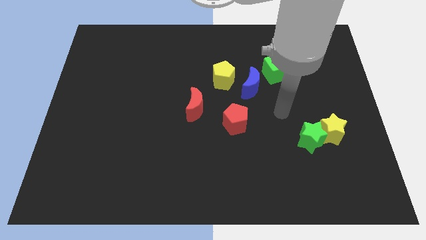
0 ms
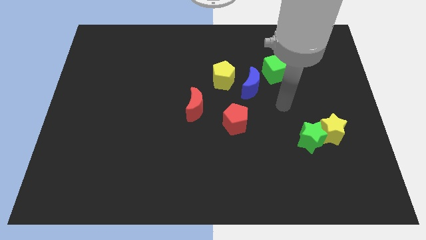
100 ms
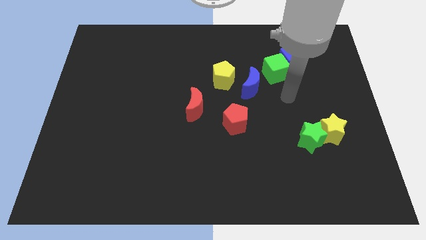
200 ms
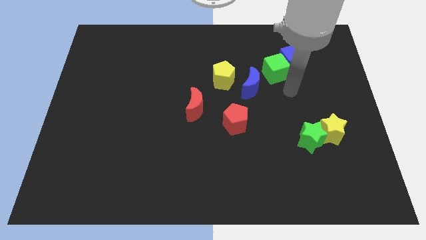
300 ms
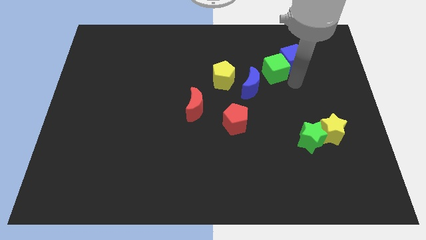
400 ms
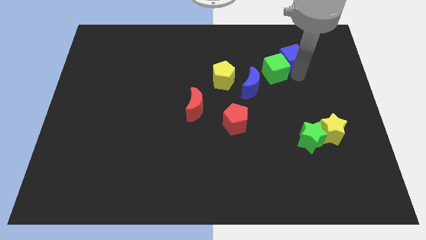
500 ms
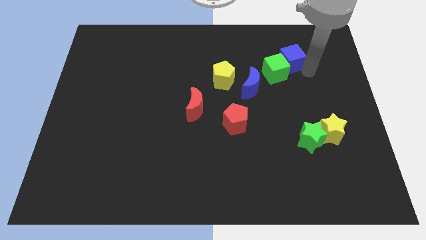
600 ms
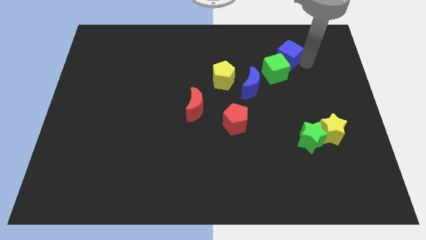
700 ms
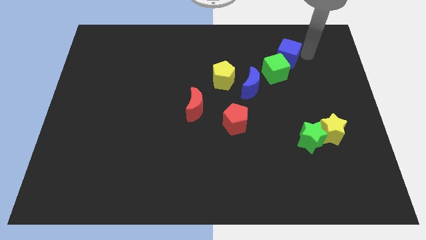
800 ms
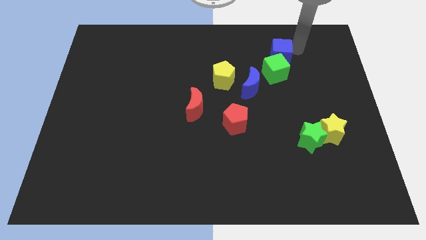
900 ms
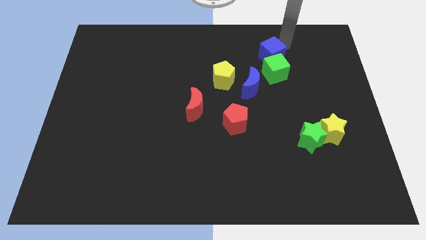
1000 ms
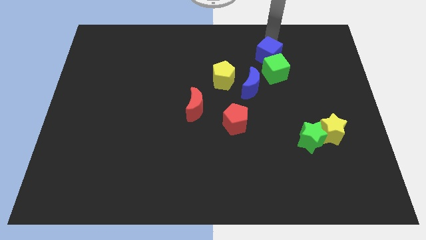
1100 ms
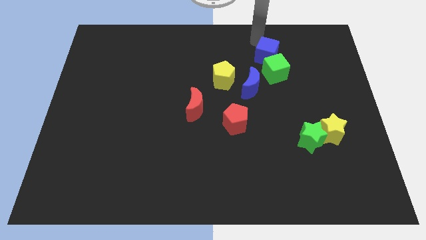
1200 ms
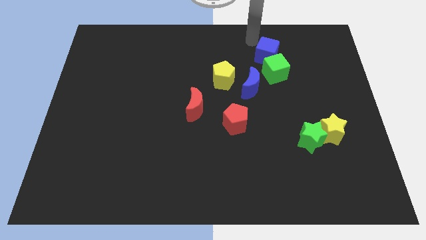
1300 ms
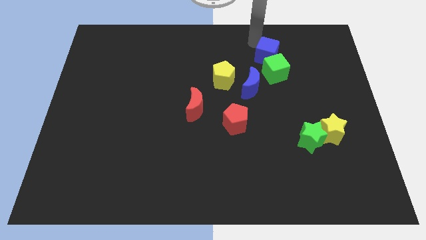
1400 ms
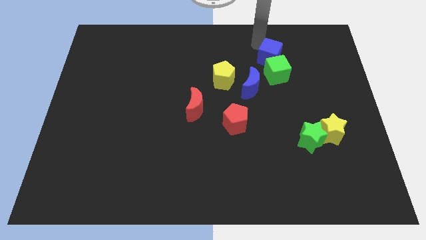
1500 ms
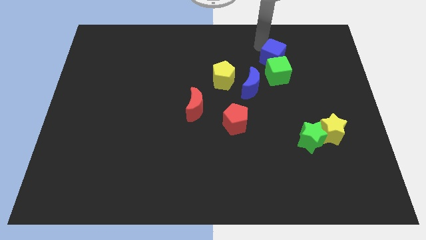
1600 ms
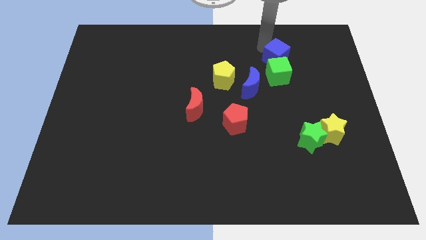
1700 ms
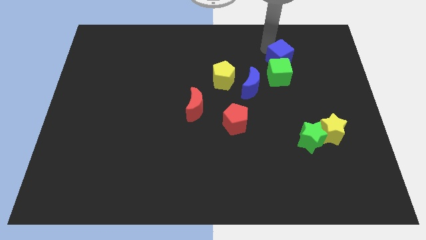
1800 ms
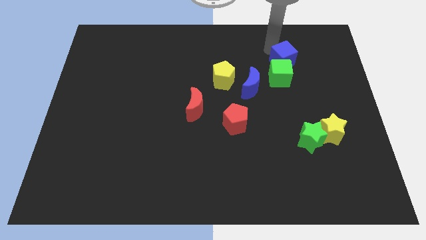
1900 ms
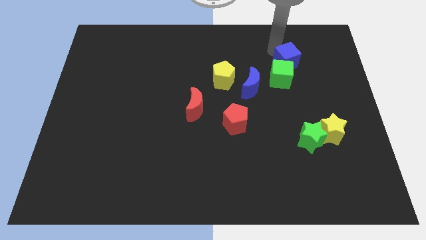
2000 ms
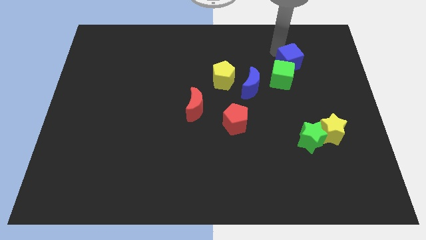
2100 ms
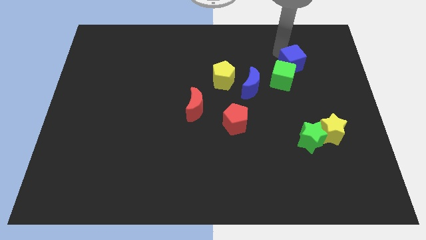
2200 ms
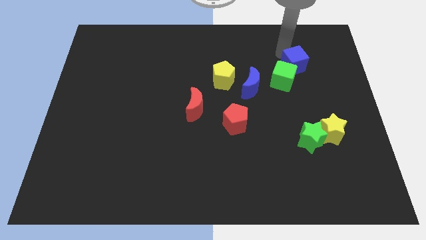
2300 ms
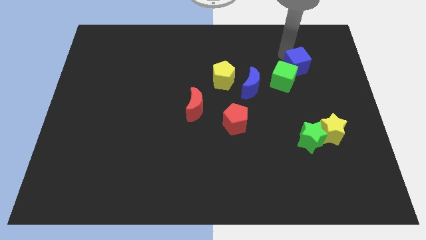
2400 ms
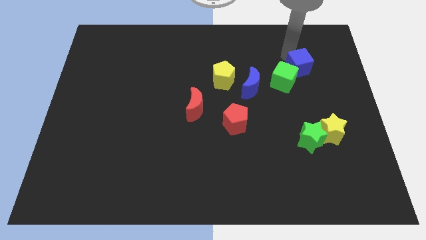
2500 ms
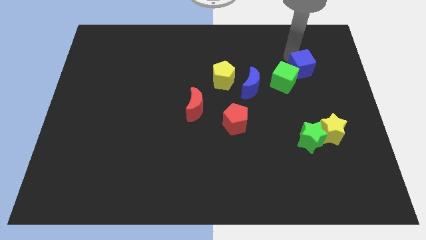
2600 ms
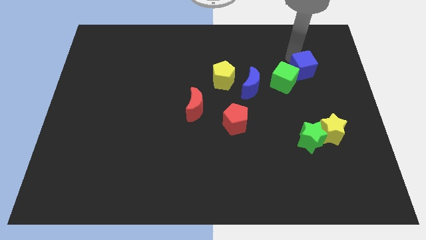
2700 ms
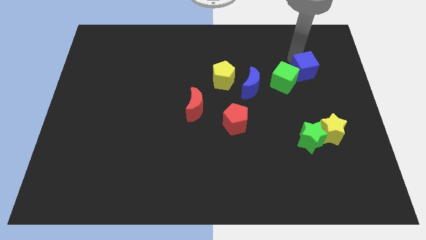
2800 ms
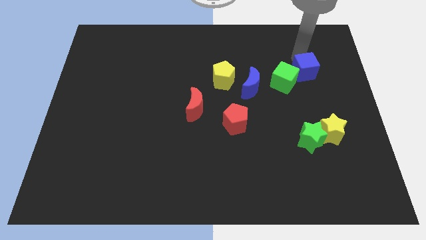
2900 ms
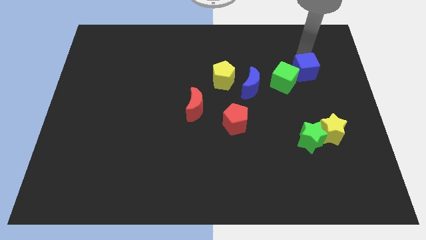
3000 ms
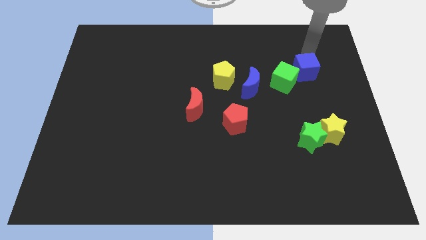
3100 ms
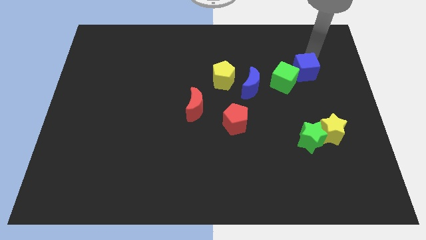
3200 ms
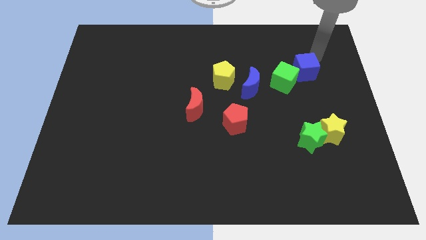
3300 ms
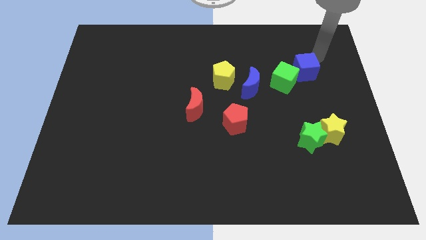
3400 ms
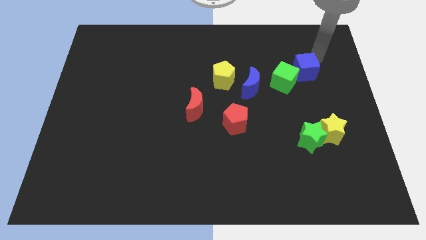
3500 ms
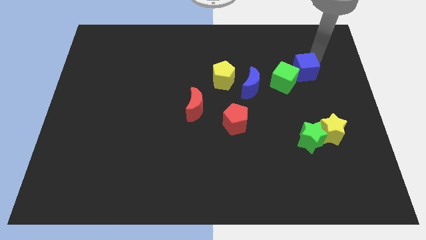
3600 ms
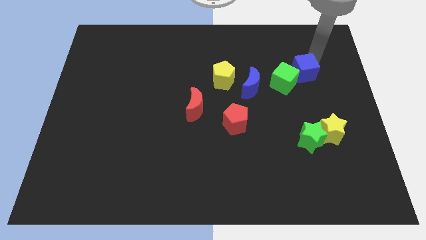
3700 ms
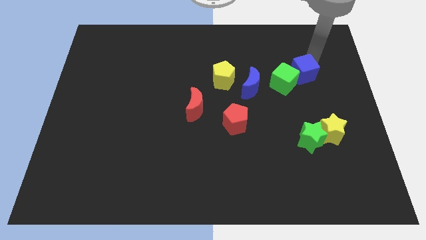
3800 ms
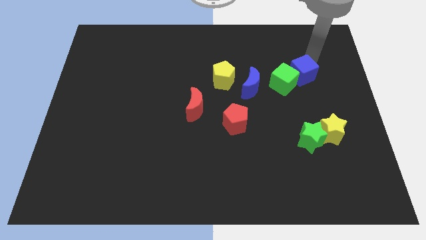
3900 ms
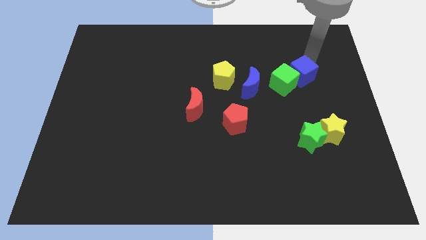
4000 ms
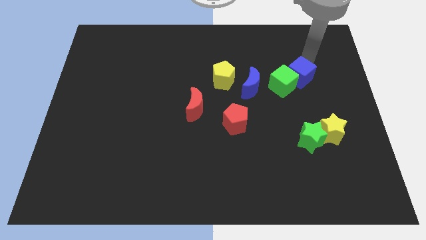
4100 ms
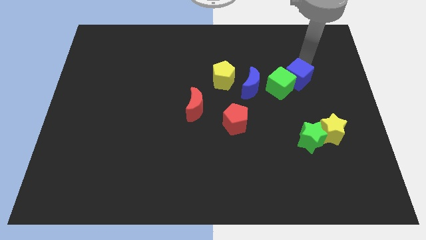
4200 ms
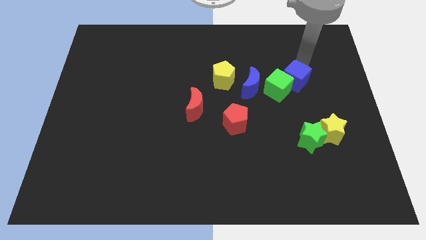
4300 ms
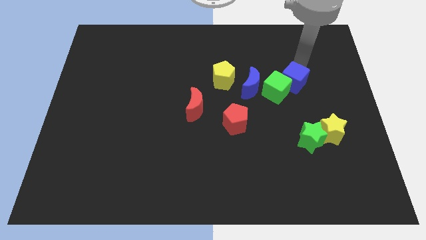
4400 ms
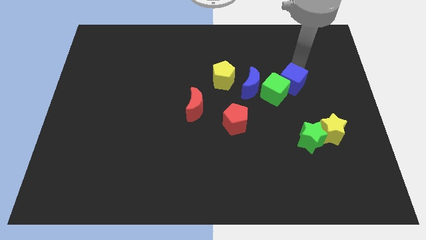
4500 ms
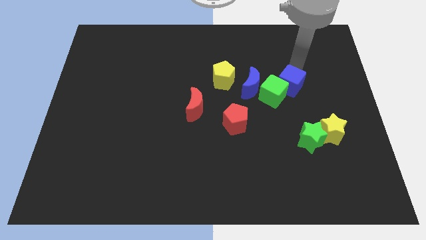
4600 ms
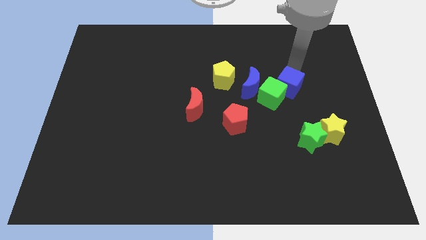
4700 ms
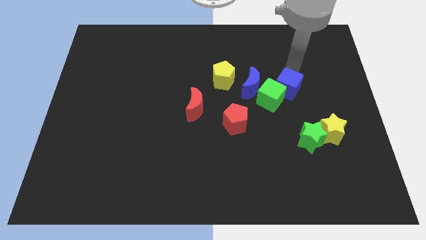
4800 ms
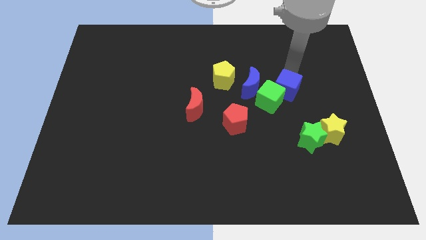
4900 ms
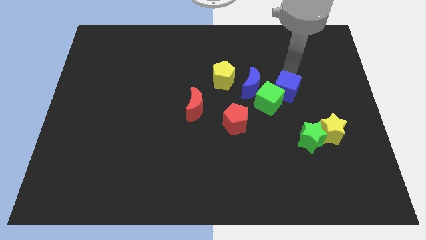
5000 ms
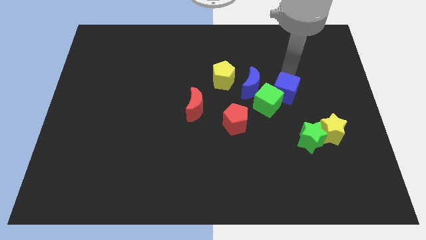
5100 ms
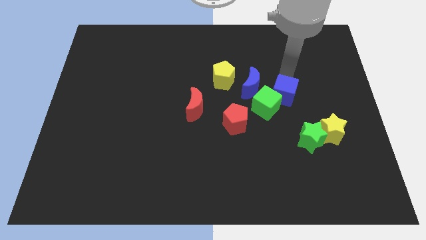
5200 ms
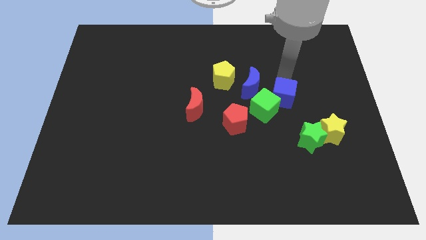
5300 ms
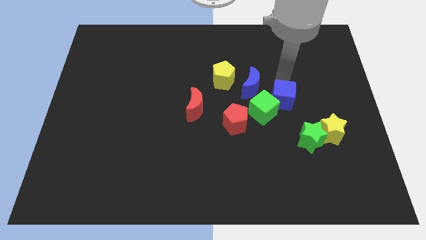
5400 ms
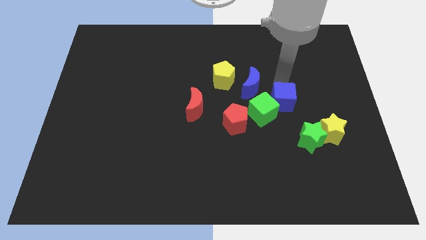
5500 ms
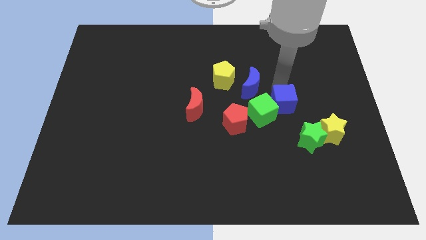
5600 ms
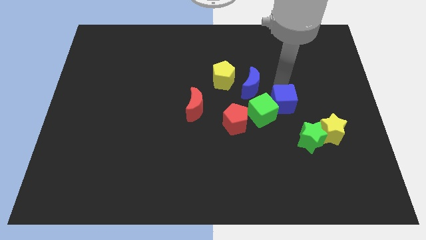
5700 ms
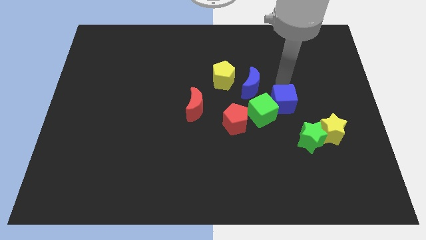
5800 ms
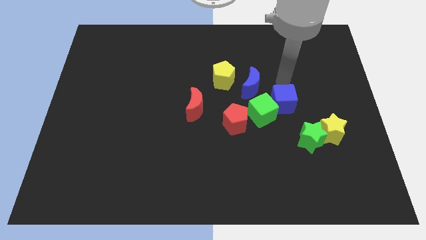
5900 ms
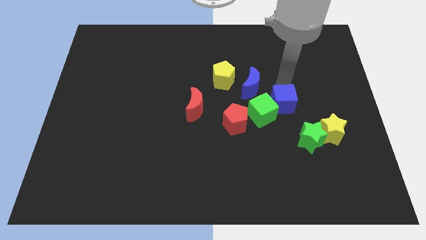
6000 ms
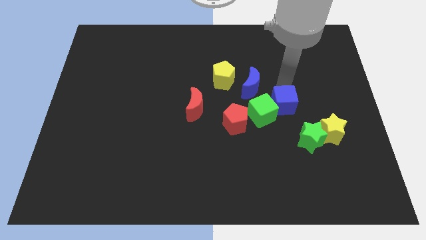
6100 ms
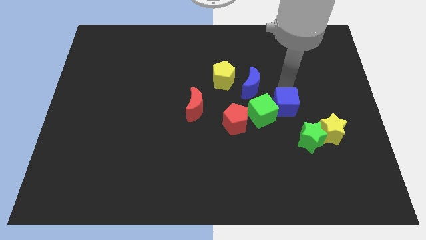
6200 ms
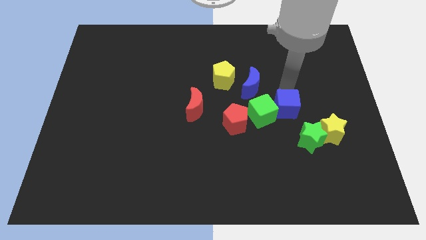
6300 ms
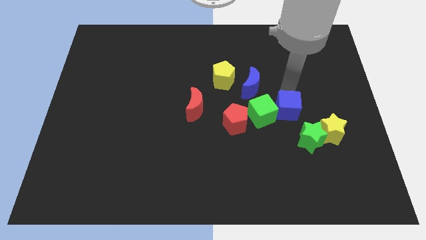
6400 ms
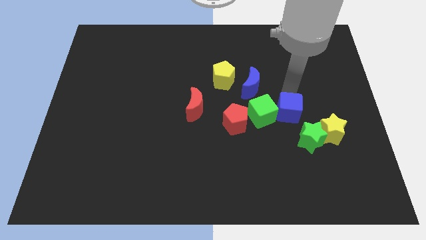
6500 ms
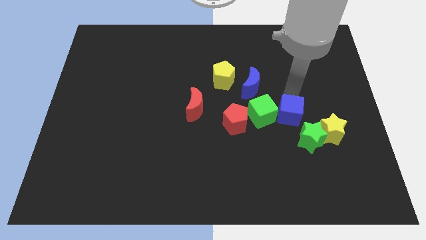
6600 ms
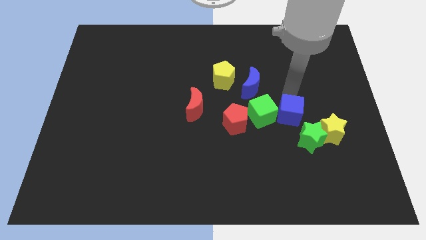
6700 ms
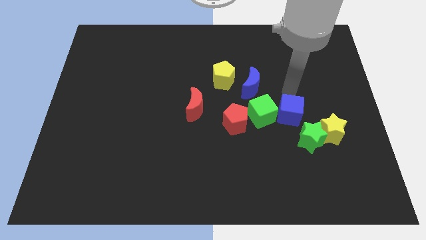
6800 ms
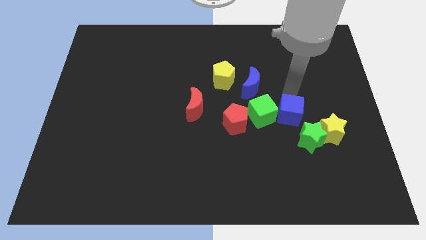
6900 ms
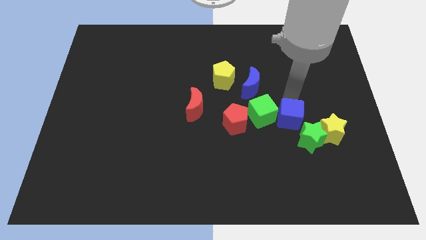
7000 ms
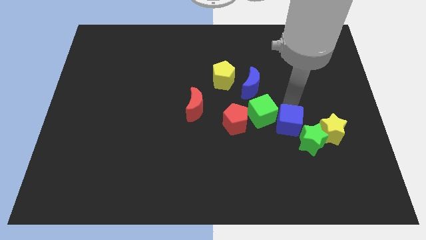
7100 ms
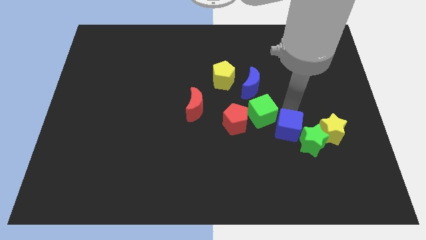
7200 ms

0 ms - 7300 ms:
slide the blue cube downwards

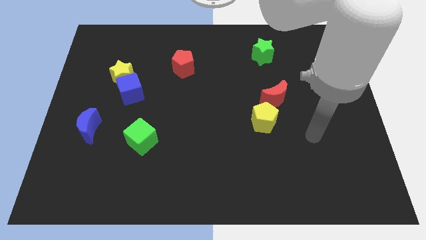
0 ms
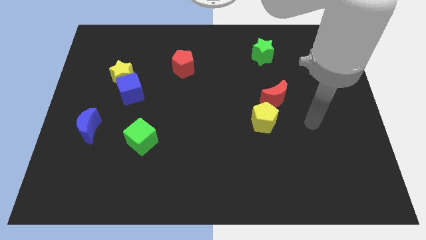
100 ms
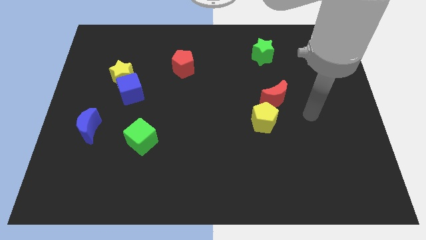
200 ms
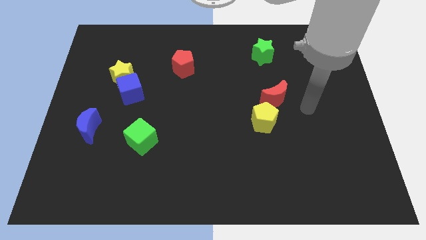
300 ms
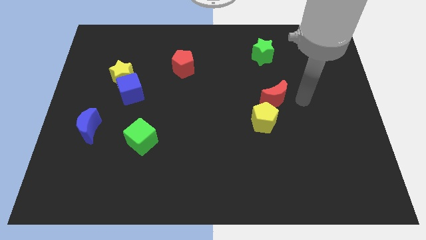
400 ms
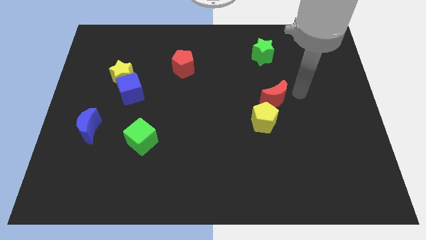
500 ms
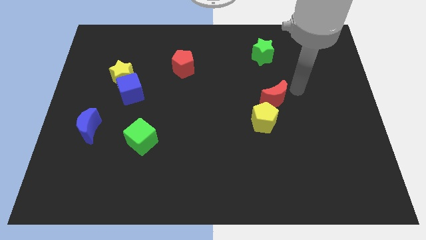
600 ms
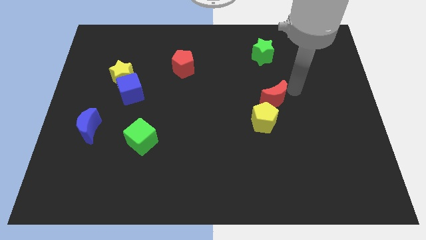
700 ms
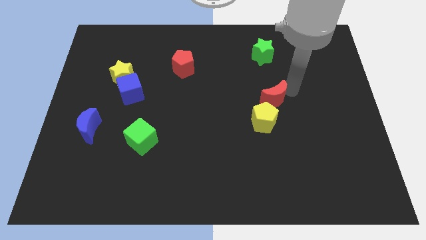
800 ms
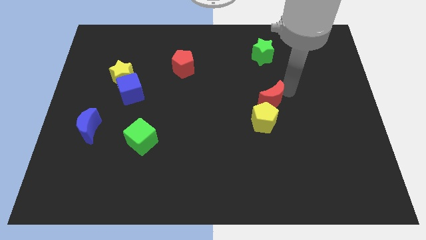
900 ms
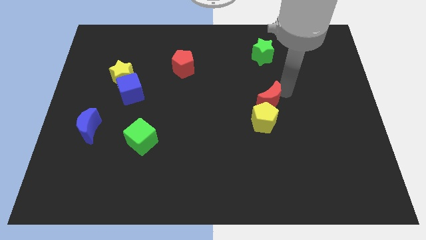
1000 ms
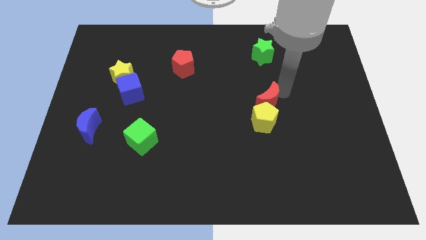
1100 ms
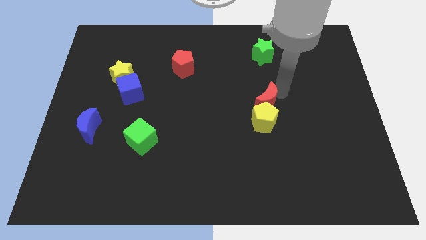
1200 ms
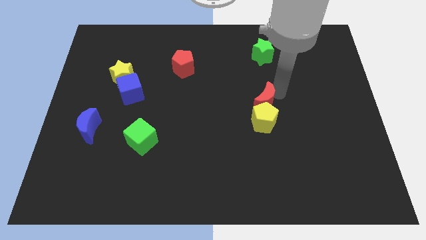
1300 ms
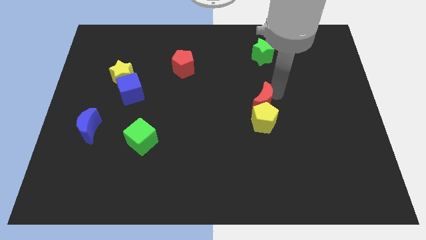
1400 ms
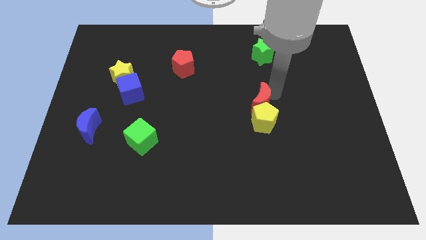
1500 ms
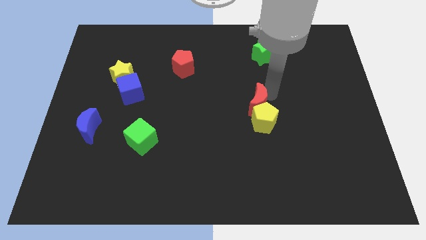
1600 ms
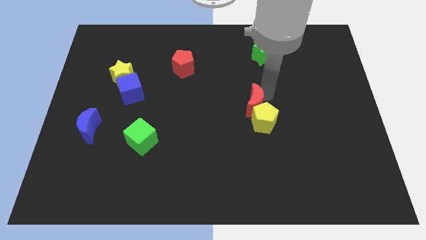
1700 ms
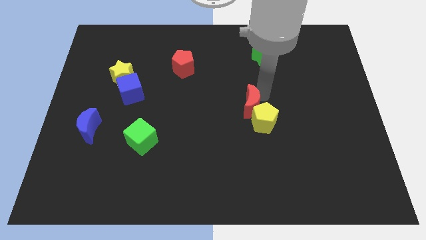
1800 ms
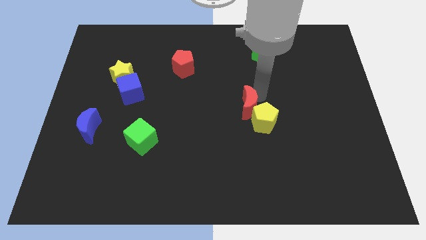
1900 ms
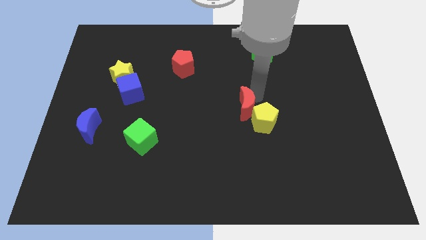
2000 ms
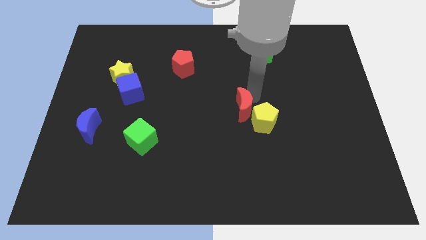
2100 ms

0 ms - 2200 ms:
move the red moon somewhat downwards and then to the left
